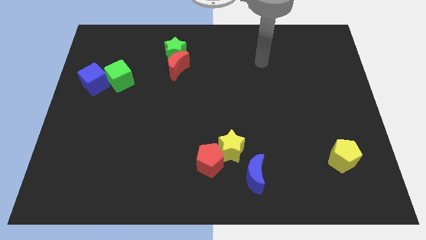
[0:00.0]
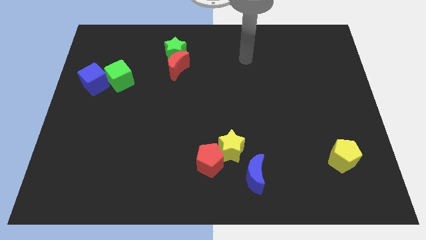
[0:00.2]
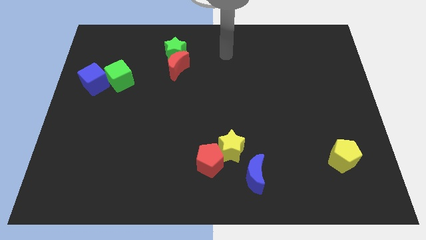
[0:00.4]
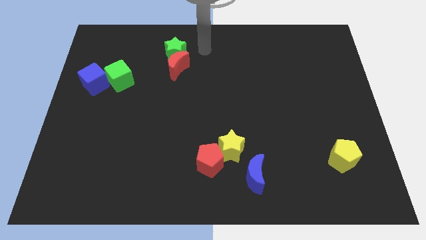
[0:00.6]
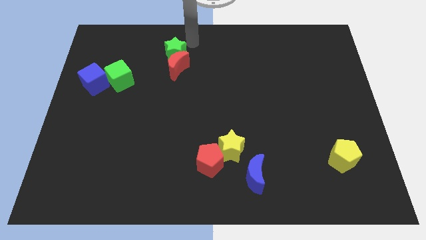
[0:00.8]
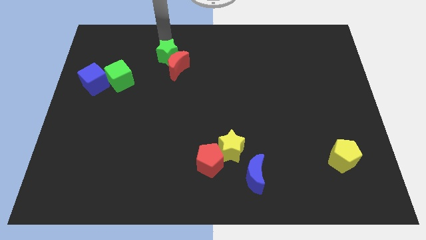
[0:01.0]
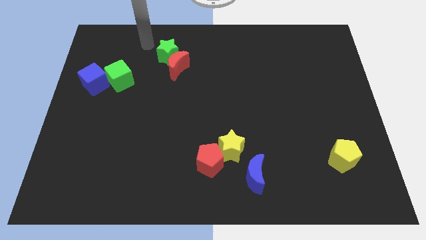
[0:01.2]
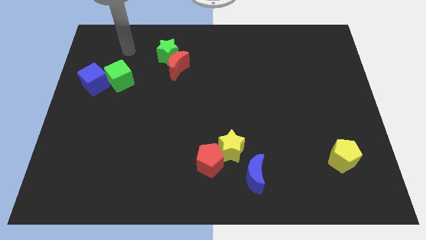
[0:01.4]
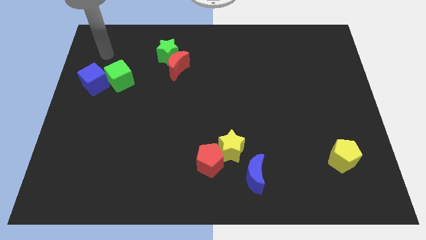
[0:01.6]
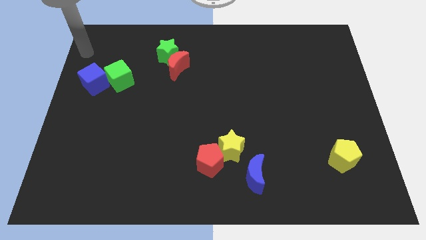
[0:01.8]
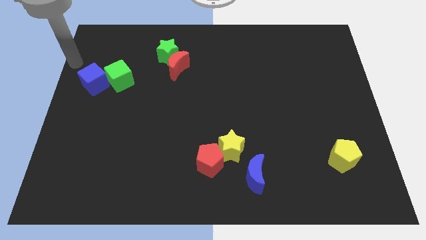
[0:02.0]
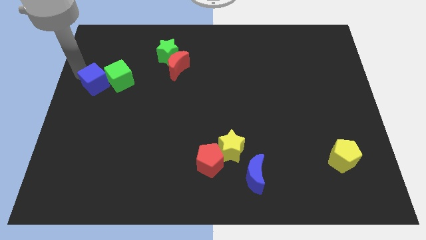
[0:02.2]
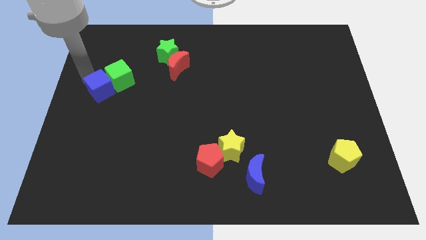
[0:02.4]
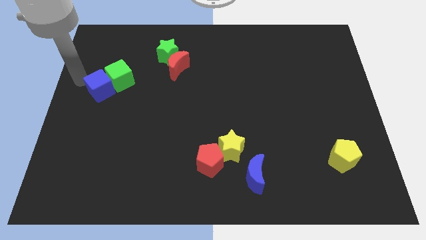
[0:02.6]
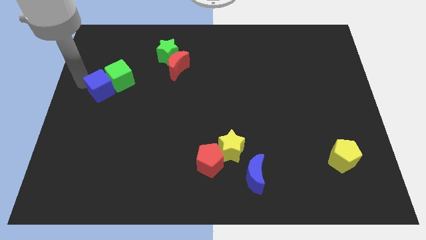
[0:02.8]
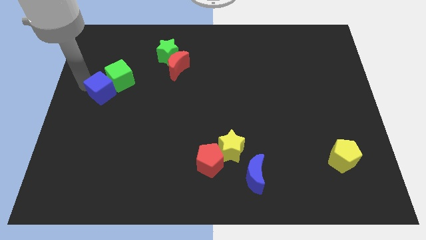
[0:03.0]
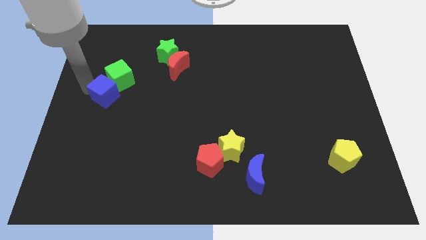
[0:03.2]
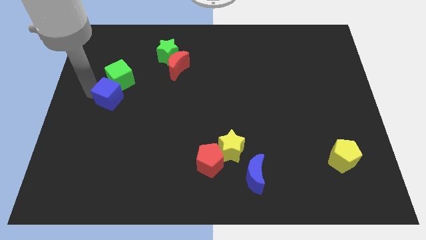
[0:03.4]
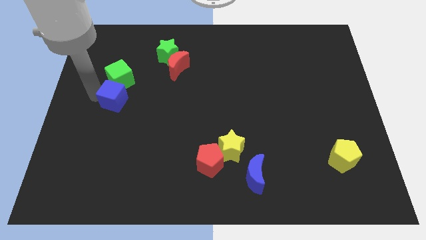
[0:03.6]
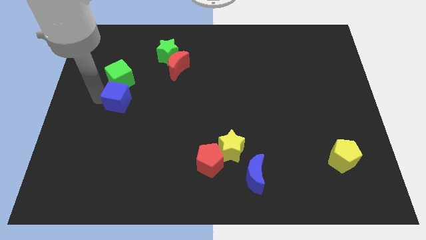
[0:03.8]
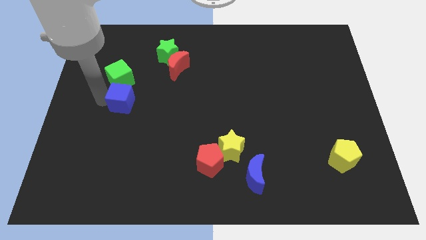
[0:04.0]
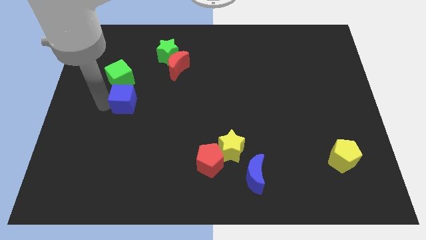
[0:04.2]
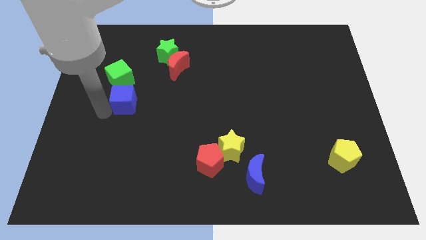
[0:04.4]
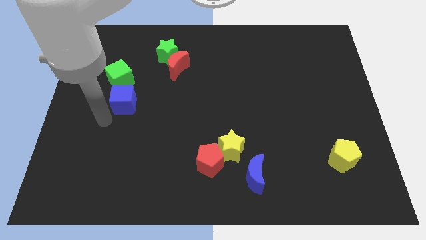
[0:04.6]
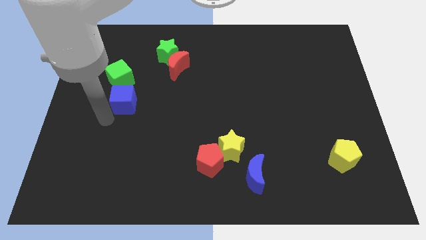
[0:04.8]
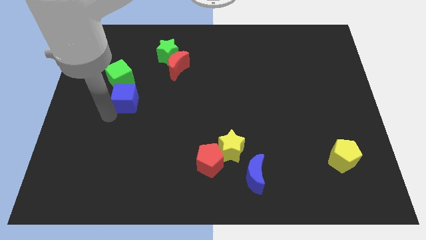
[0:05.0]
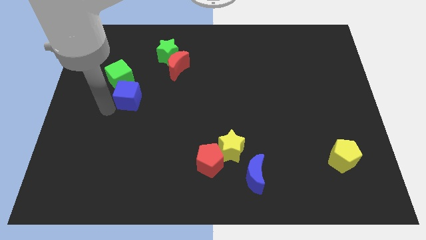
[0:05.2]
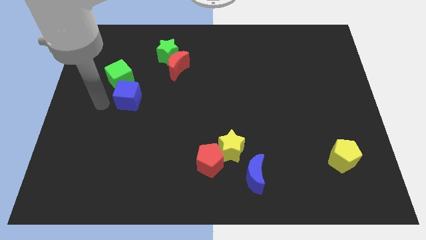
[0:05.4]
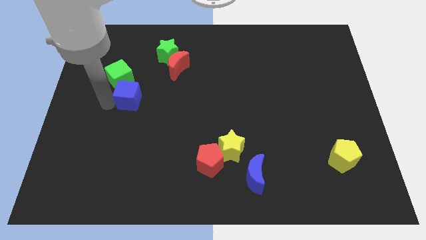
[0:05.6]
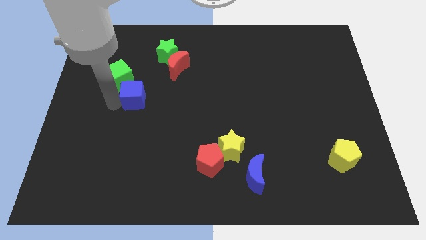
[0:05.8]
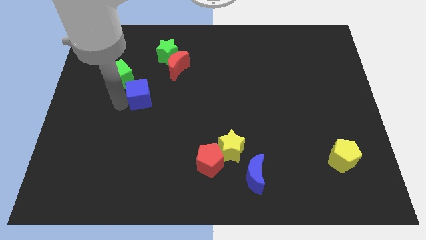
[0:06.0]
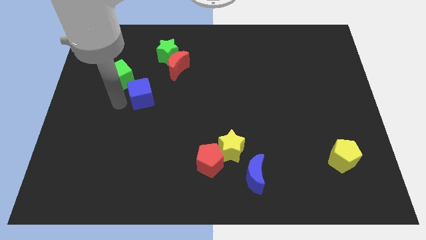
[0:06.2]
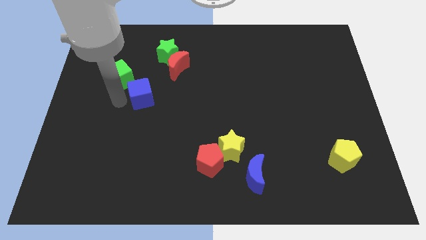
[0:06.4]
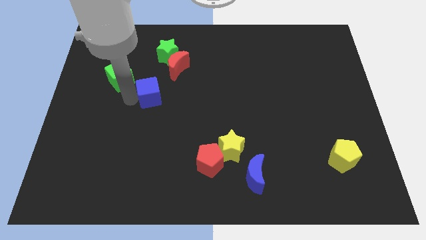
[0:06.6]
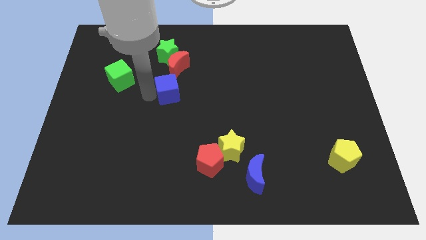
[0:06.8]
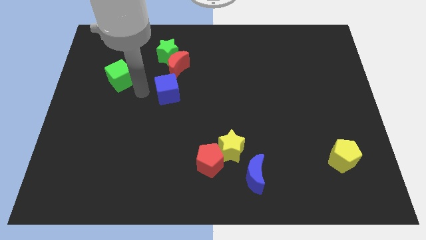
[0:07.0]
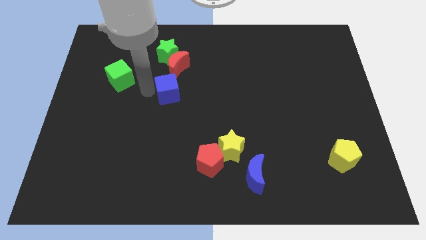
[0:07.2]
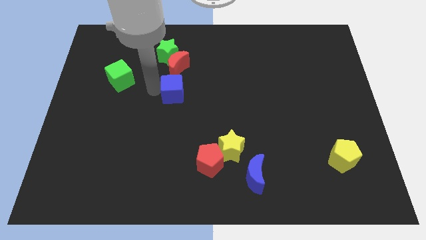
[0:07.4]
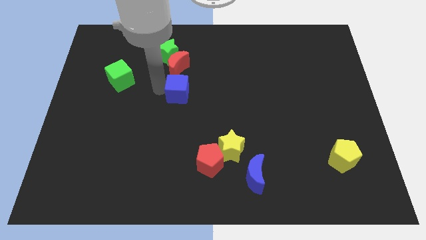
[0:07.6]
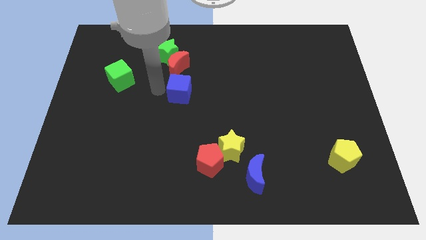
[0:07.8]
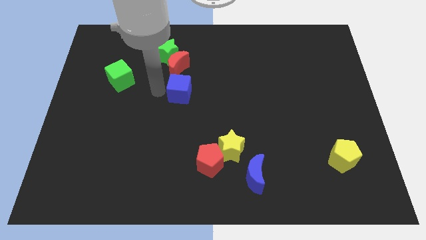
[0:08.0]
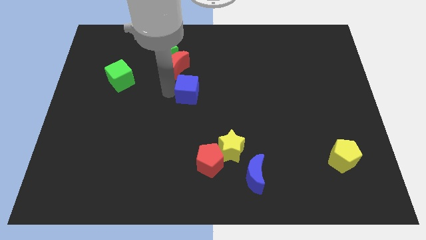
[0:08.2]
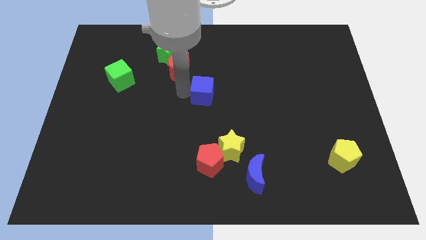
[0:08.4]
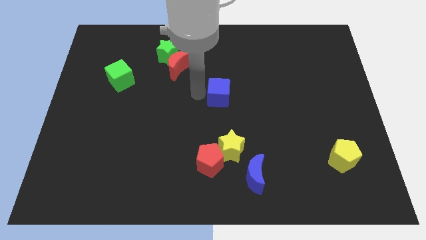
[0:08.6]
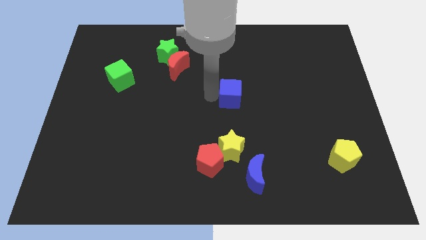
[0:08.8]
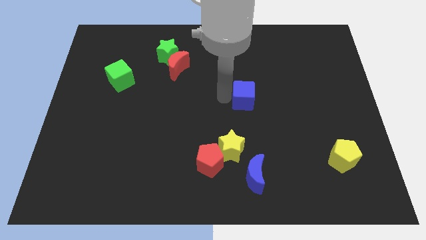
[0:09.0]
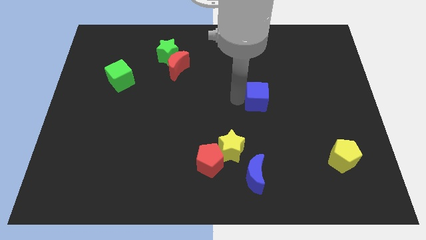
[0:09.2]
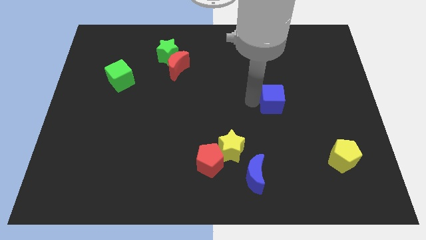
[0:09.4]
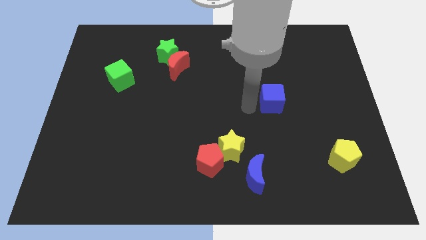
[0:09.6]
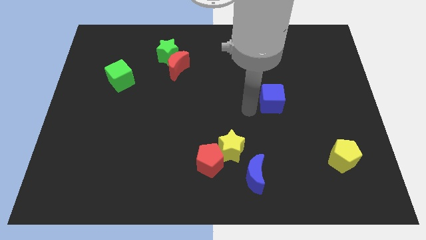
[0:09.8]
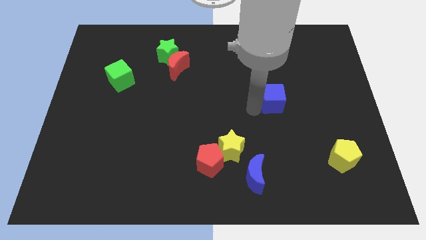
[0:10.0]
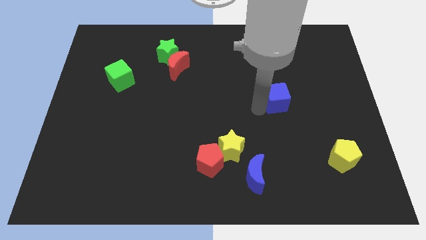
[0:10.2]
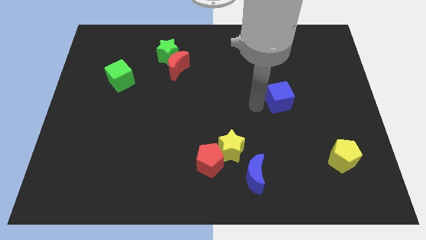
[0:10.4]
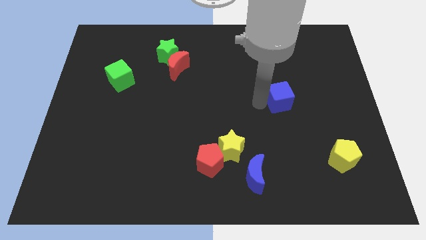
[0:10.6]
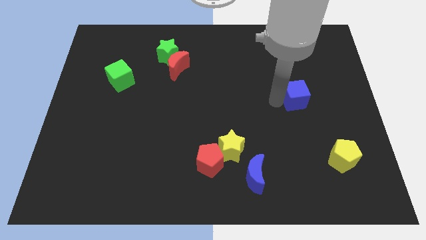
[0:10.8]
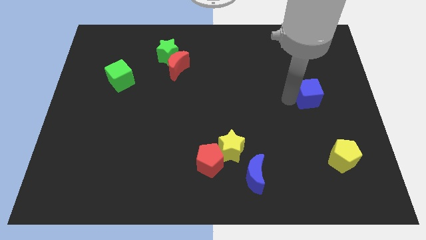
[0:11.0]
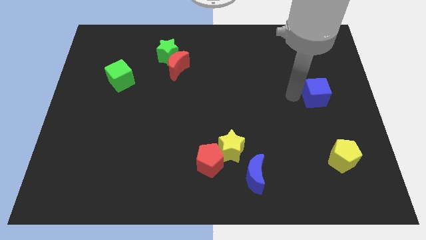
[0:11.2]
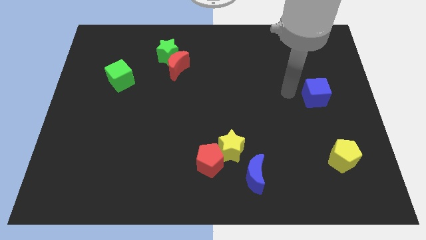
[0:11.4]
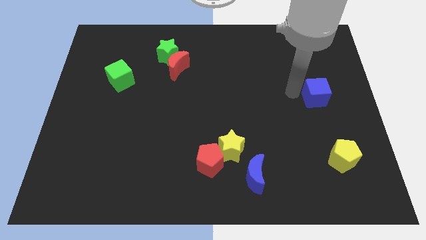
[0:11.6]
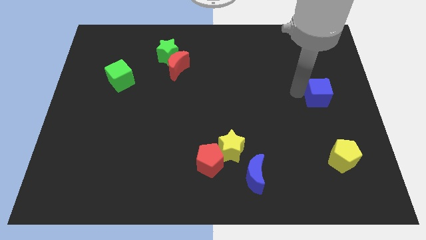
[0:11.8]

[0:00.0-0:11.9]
push the blue cube to the right side of the board
